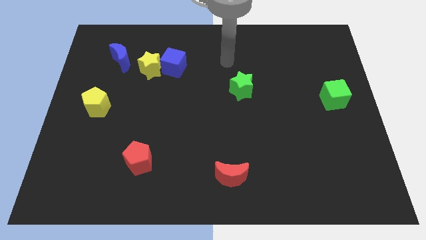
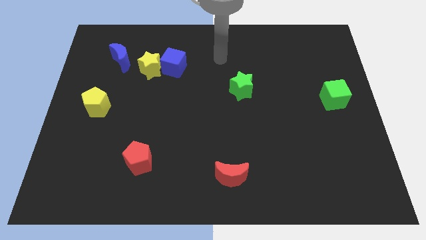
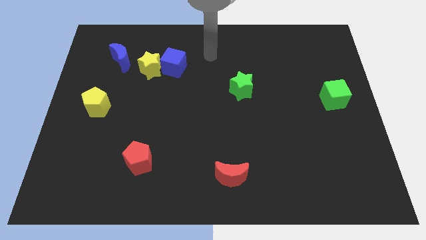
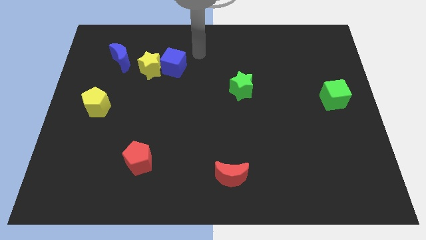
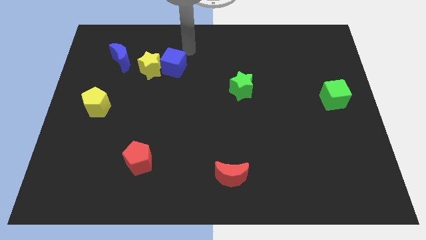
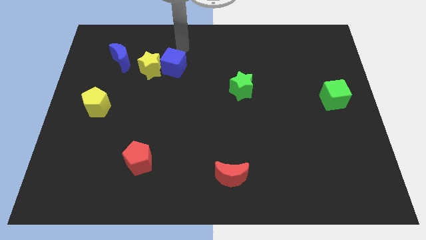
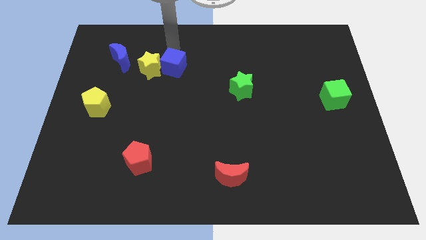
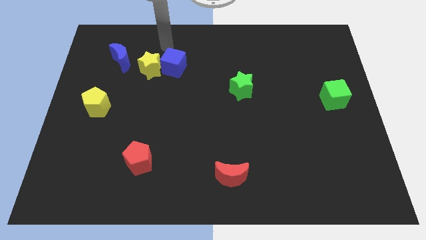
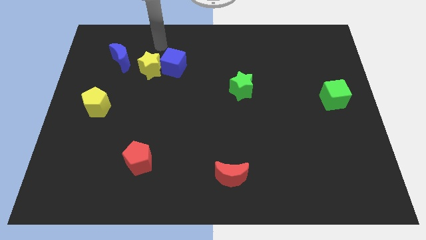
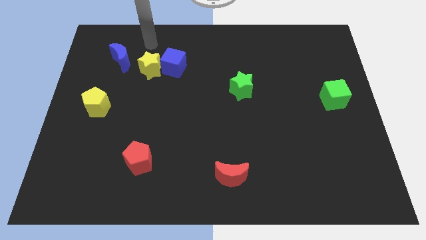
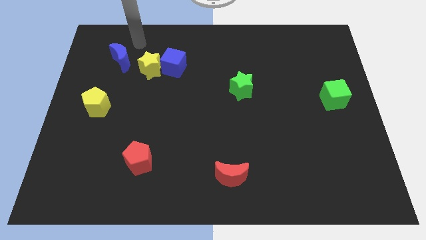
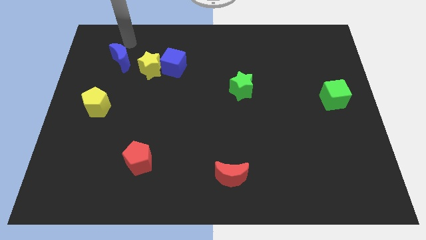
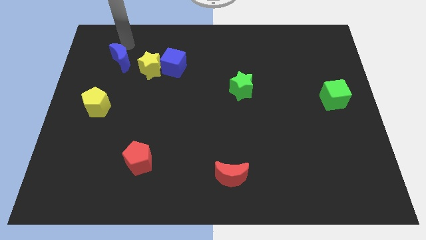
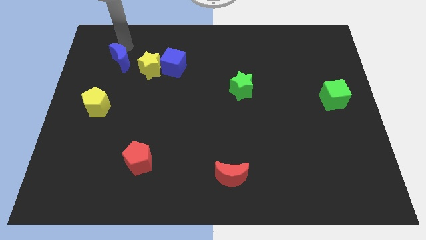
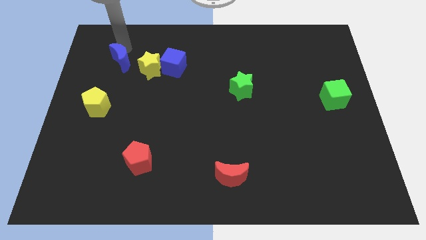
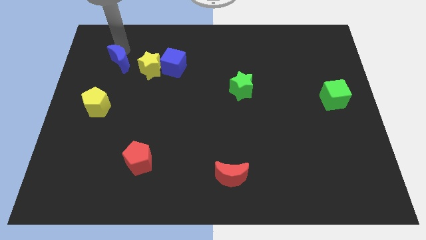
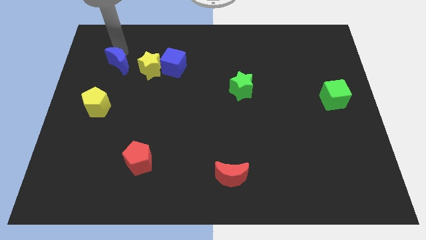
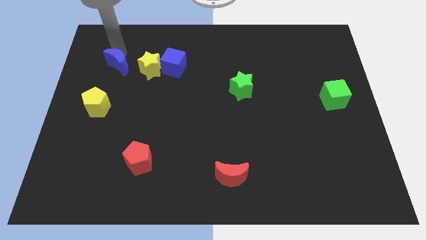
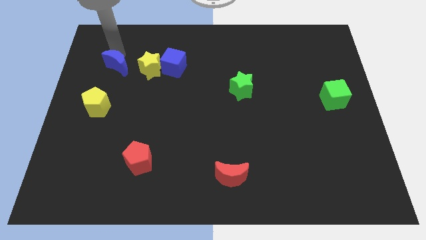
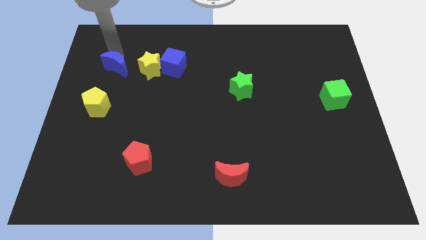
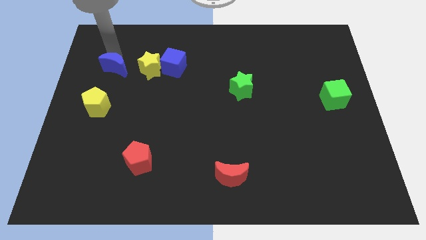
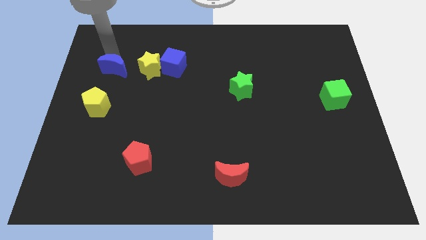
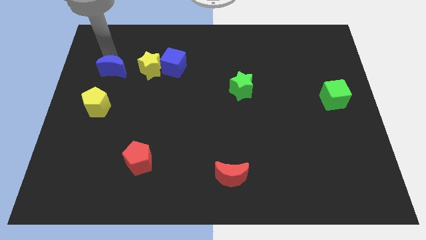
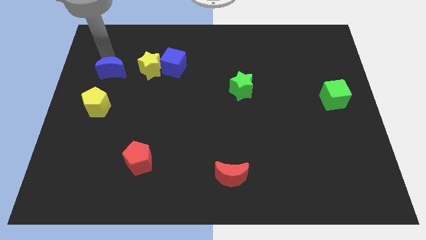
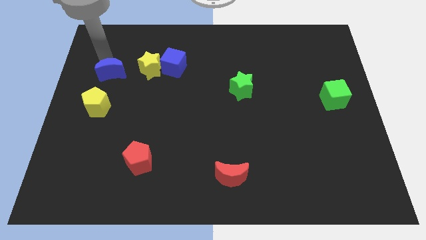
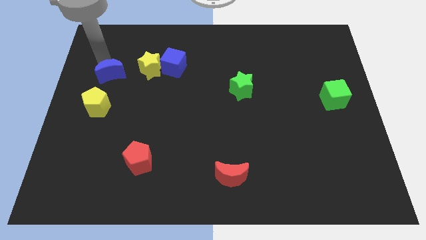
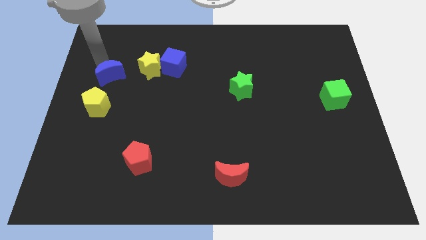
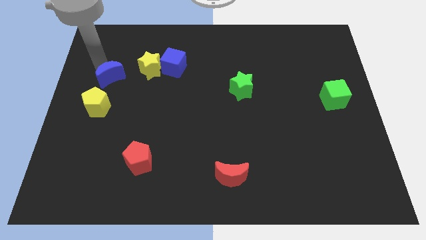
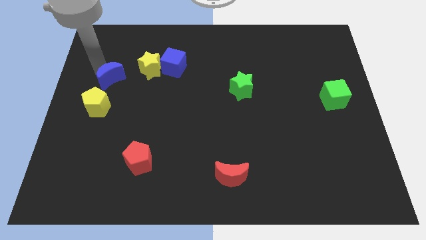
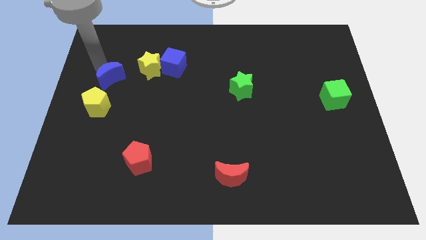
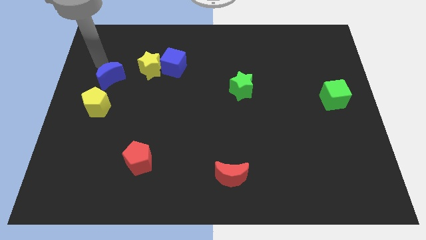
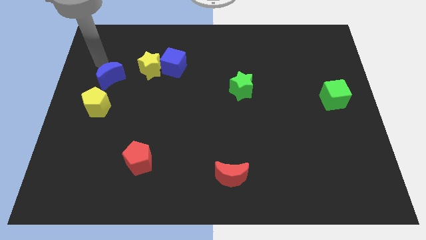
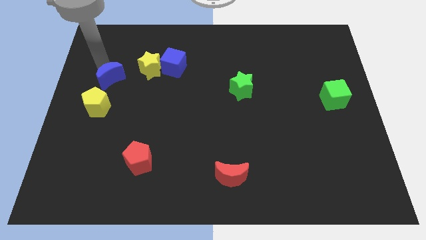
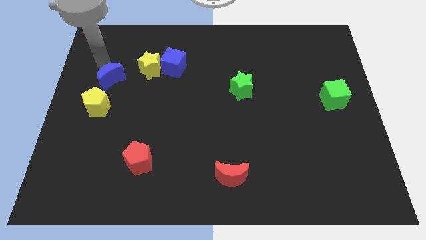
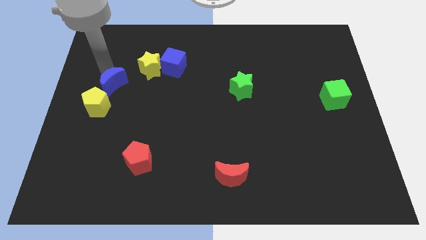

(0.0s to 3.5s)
push the blue moon downwards a bit

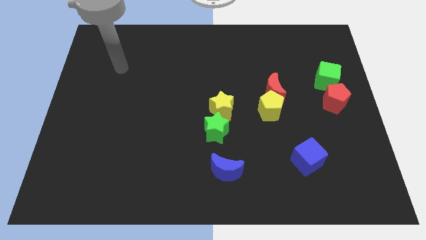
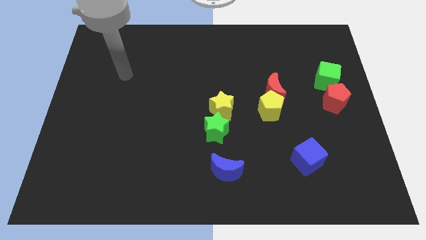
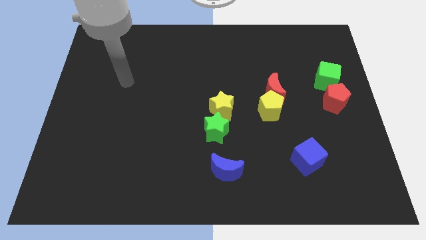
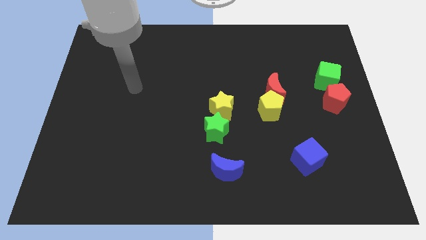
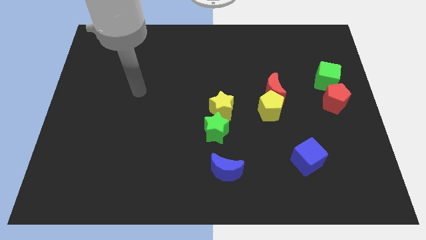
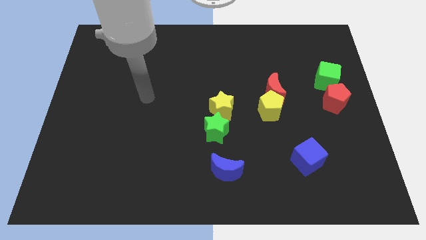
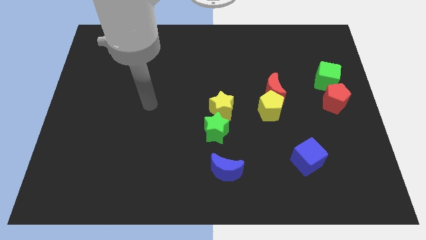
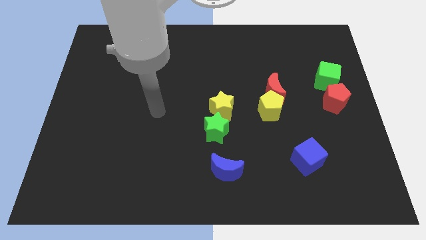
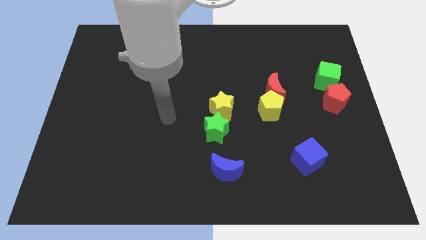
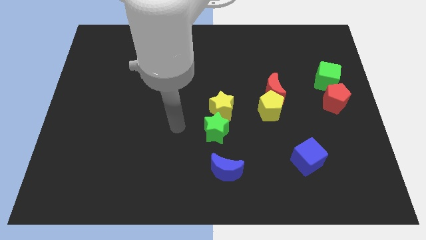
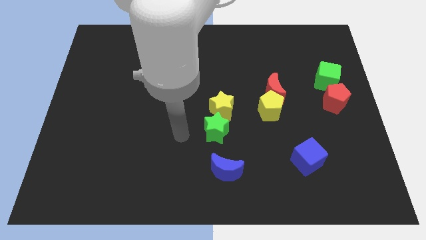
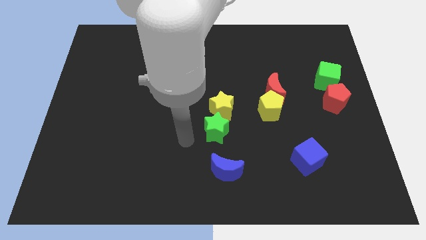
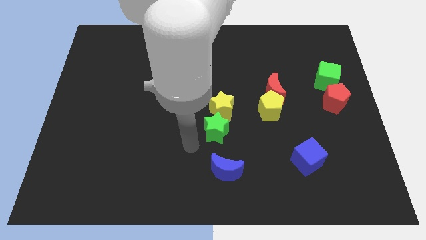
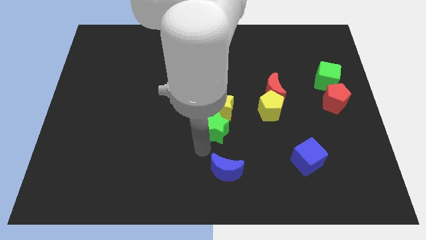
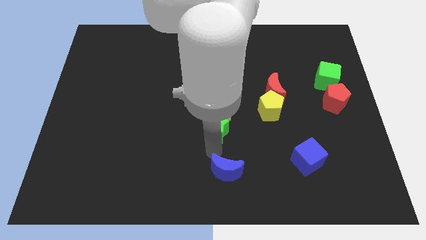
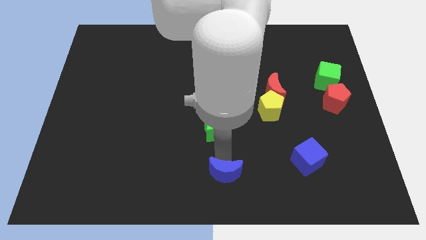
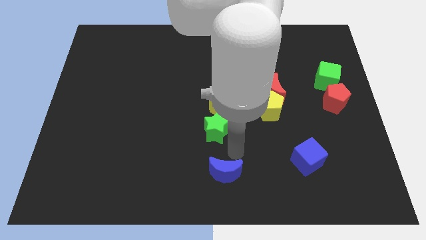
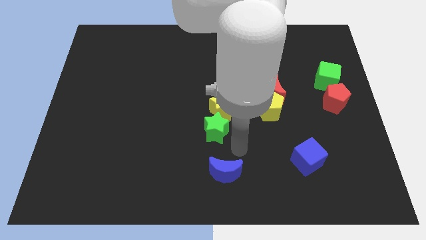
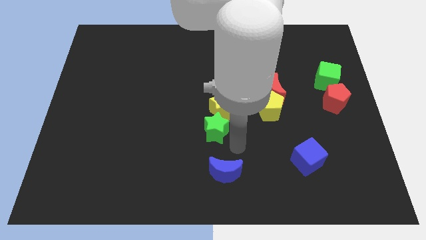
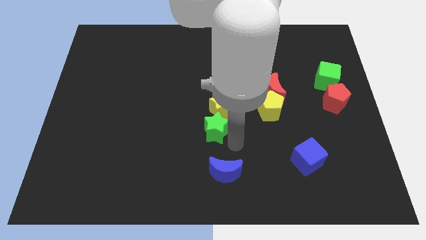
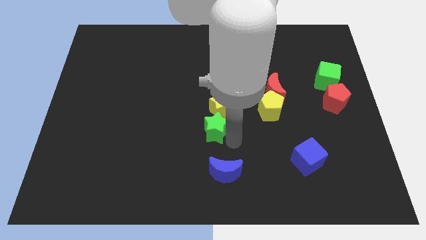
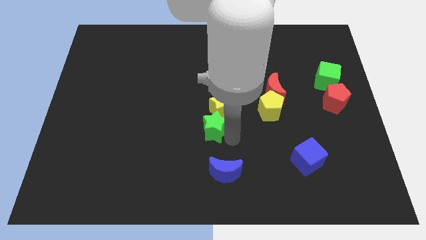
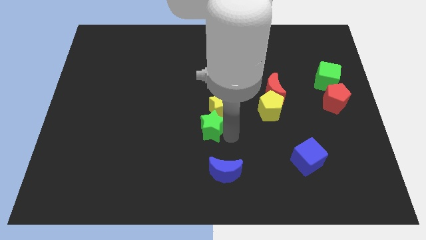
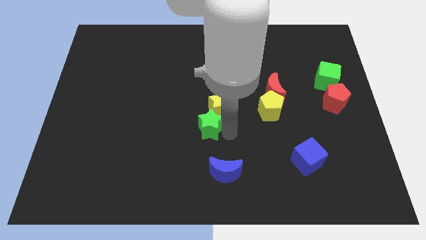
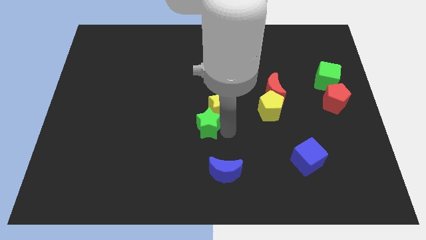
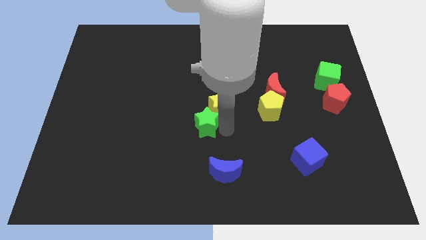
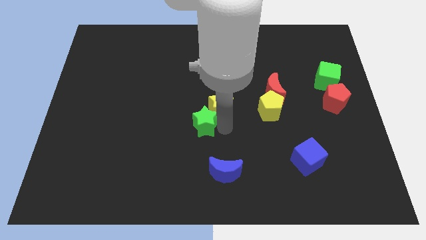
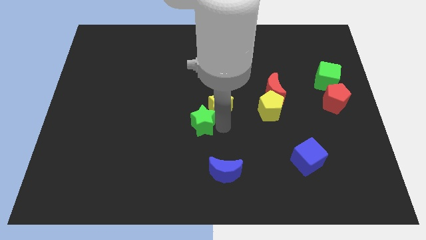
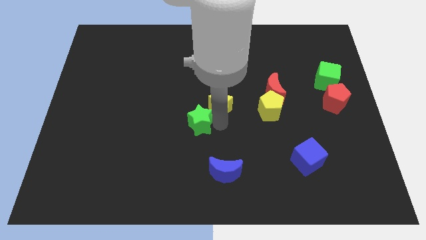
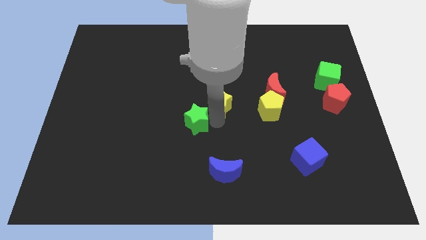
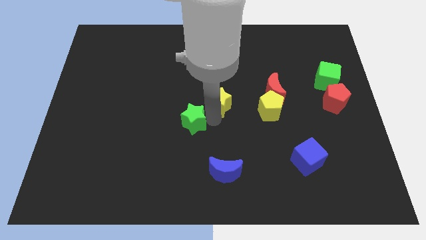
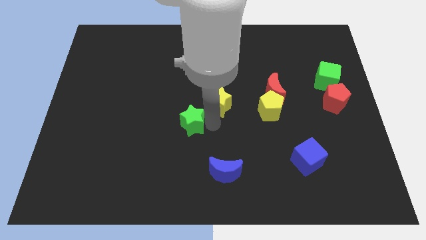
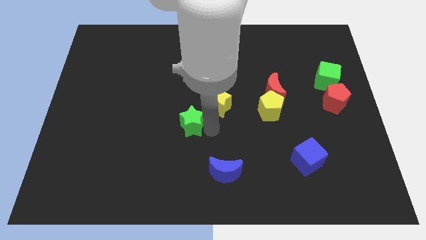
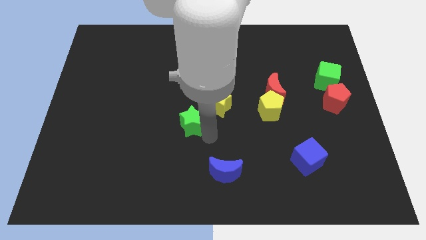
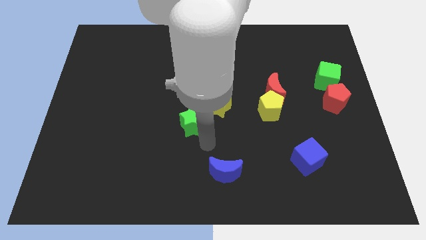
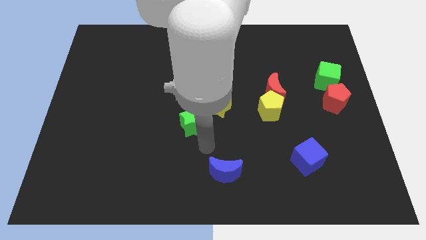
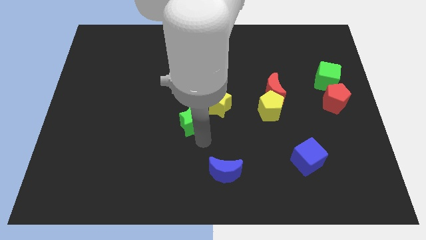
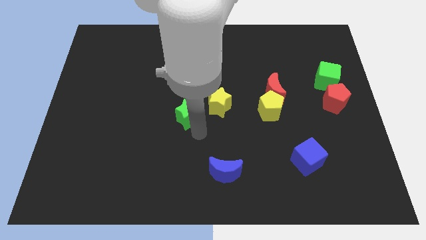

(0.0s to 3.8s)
slide the green star a little diagonally upwards and left

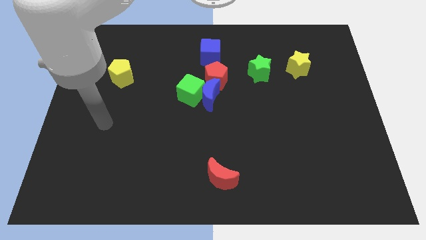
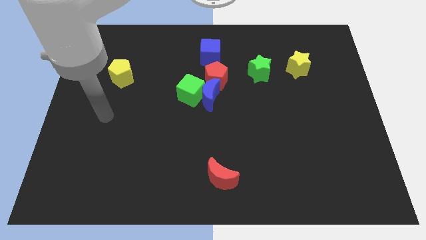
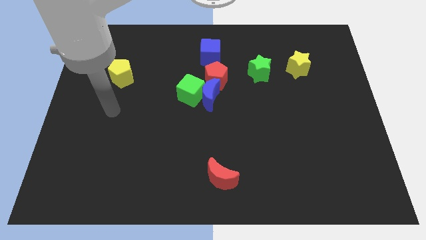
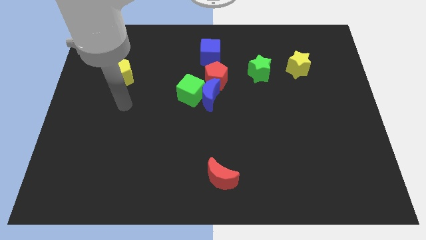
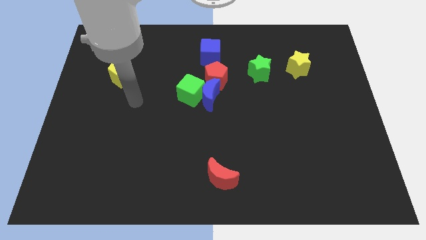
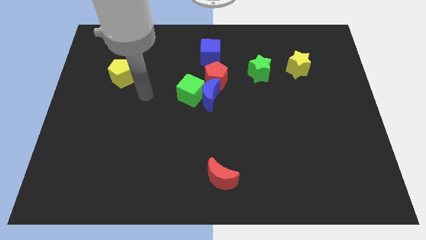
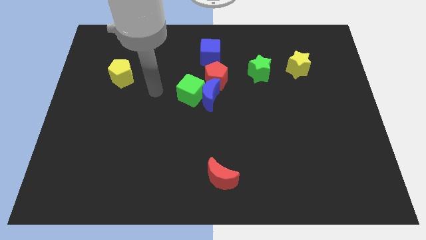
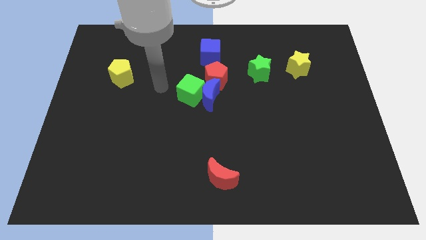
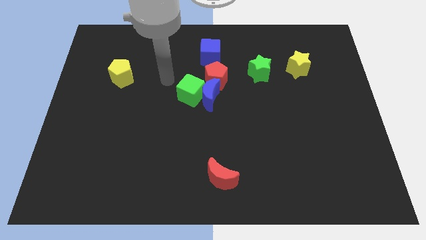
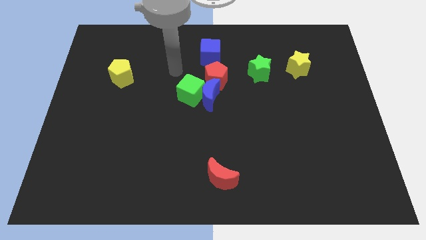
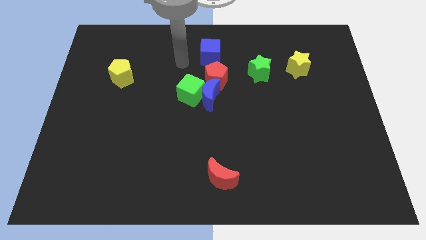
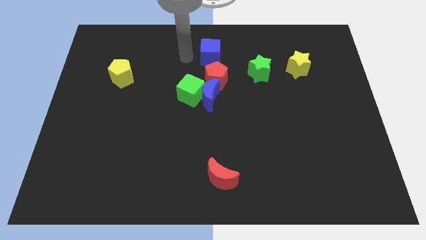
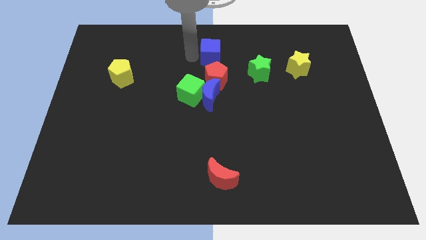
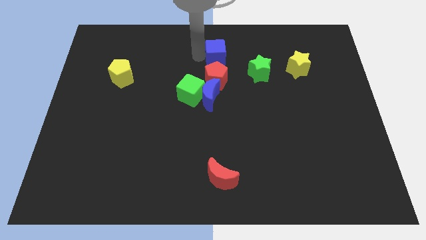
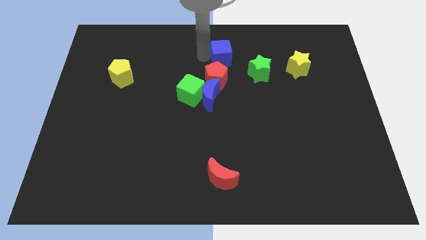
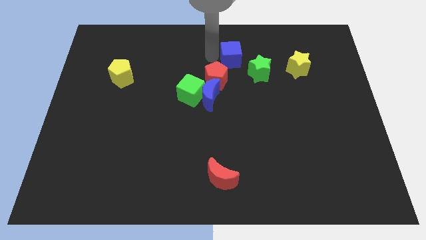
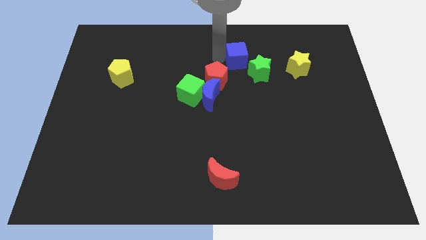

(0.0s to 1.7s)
slide the blue cube right a little bit
